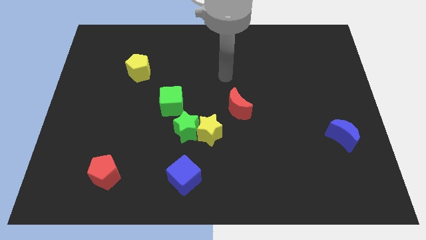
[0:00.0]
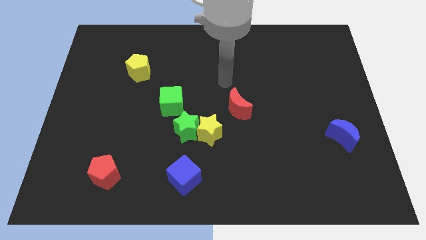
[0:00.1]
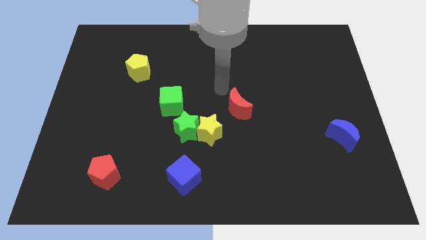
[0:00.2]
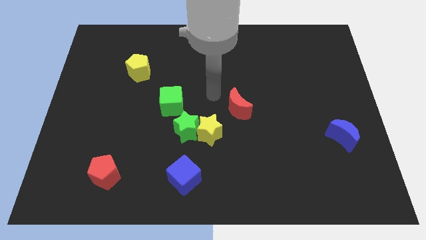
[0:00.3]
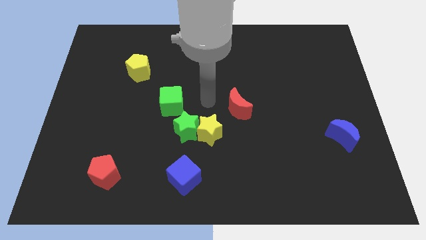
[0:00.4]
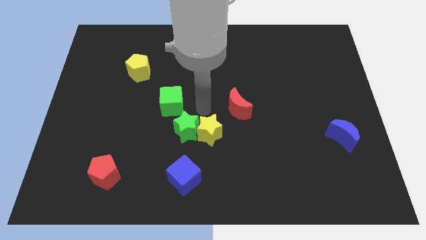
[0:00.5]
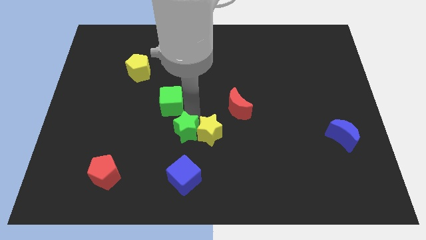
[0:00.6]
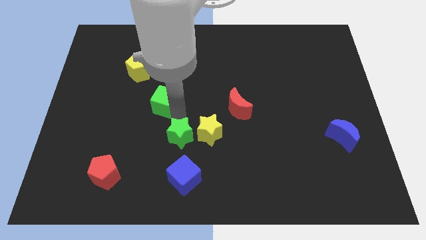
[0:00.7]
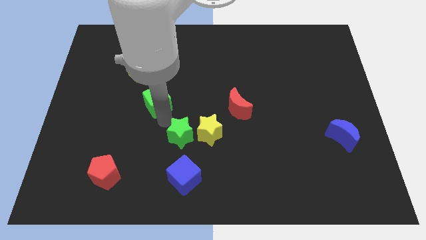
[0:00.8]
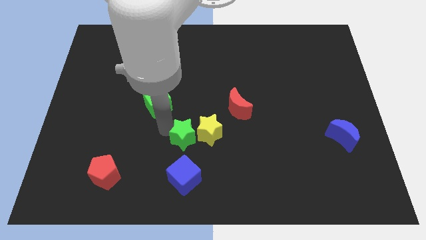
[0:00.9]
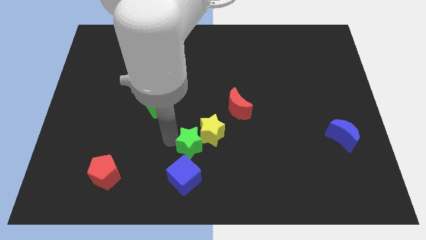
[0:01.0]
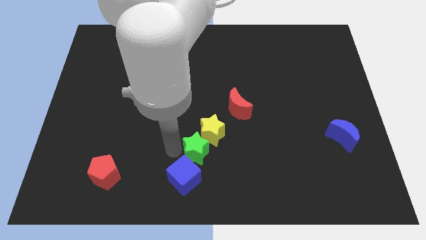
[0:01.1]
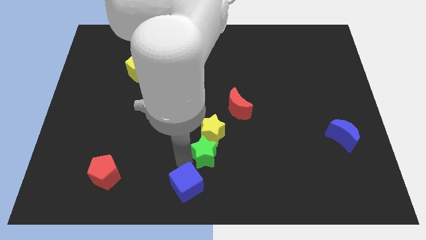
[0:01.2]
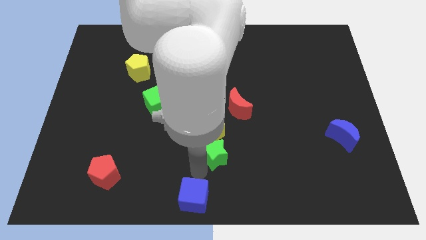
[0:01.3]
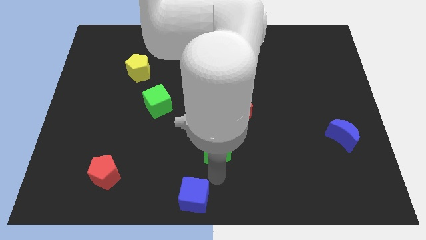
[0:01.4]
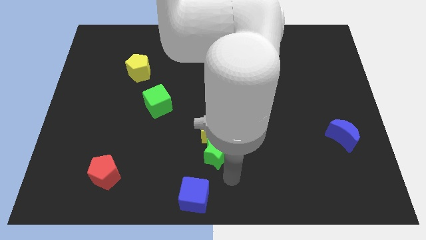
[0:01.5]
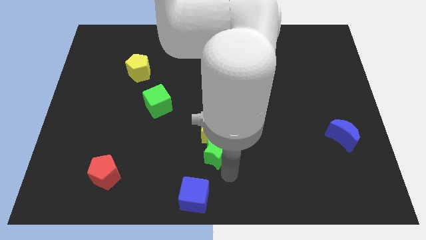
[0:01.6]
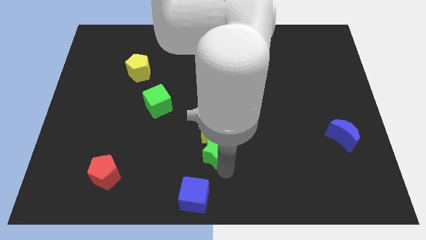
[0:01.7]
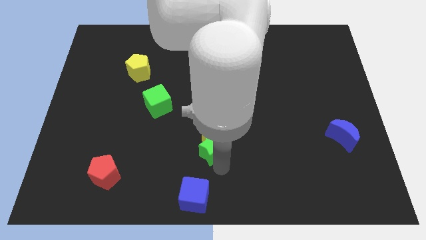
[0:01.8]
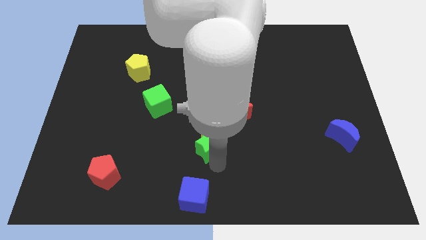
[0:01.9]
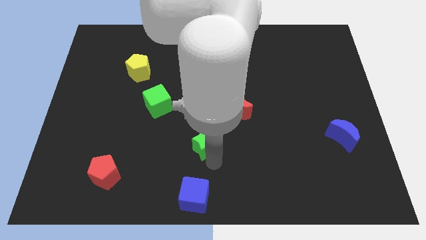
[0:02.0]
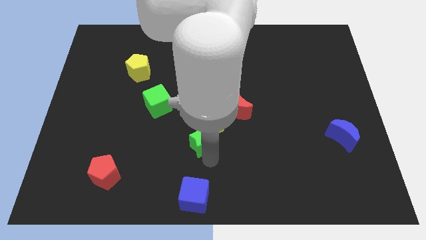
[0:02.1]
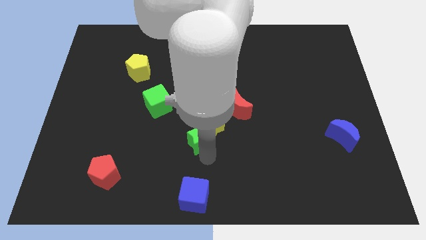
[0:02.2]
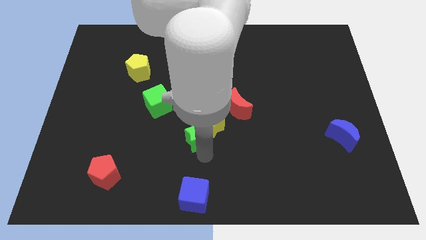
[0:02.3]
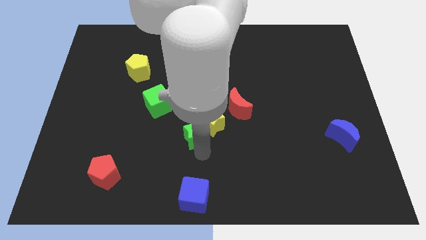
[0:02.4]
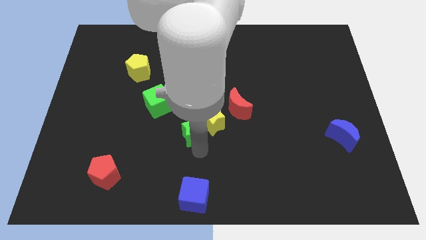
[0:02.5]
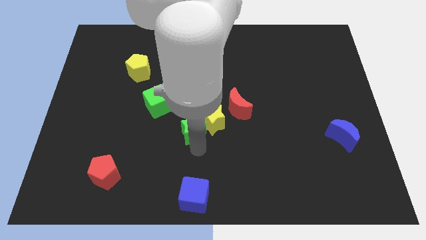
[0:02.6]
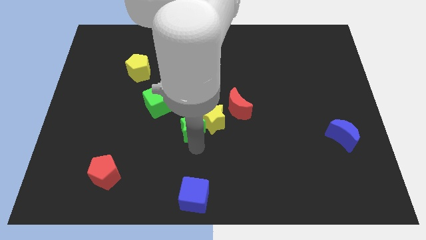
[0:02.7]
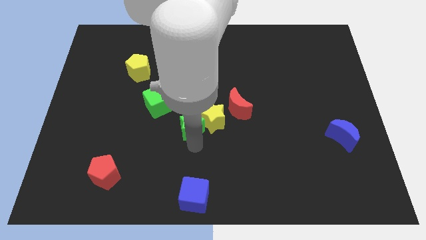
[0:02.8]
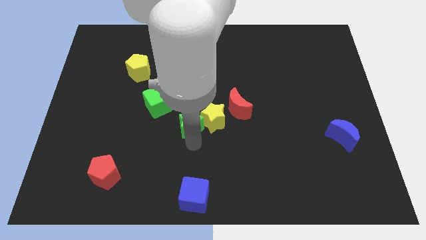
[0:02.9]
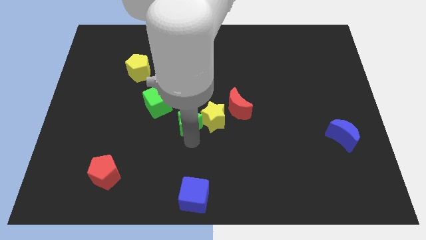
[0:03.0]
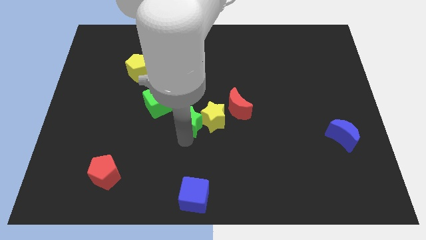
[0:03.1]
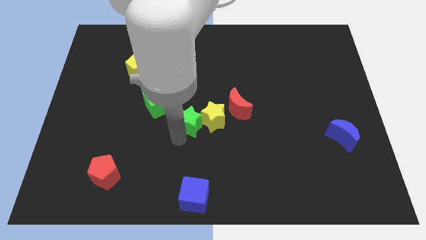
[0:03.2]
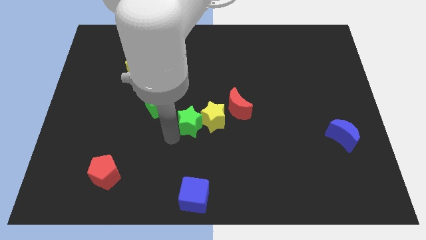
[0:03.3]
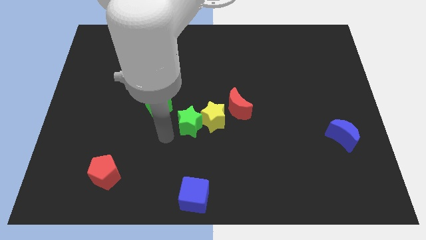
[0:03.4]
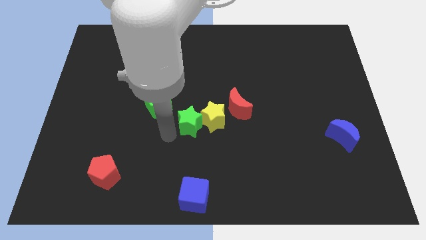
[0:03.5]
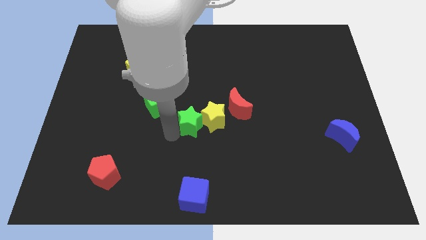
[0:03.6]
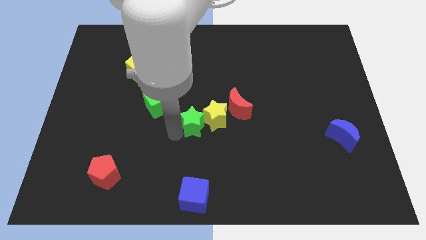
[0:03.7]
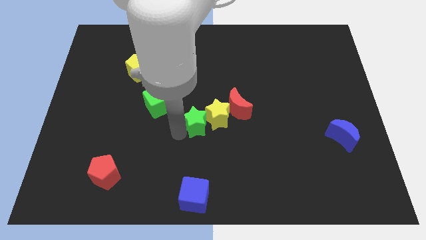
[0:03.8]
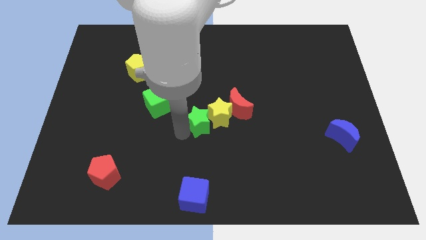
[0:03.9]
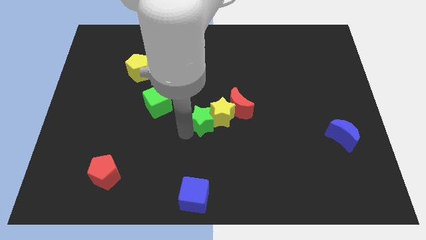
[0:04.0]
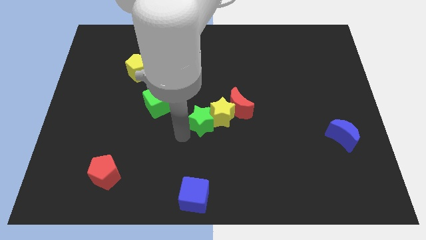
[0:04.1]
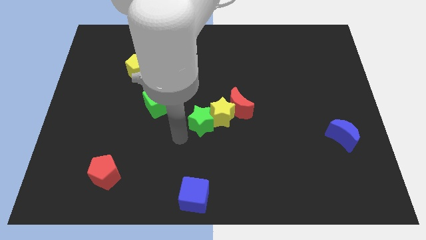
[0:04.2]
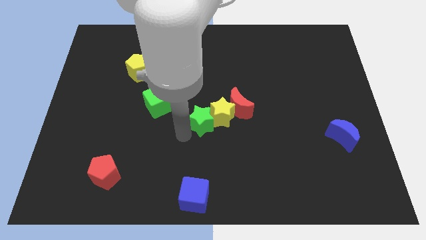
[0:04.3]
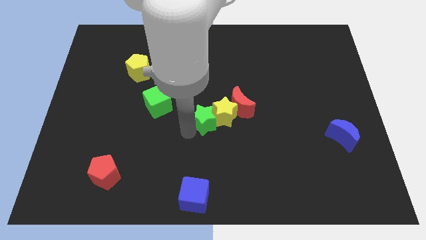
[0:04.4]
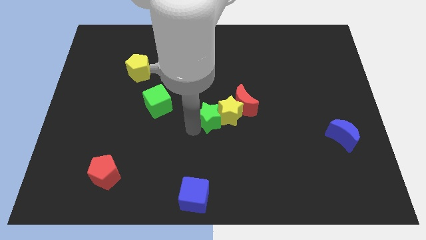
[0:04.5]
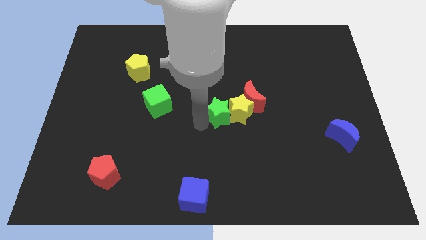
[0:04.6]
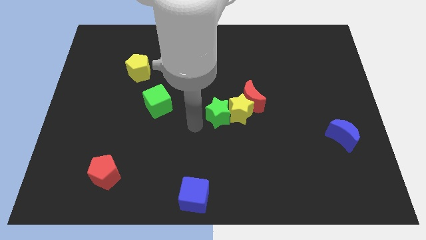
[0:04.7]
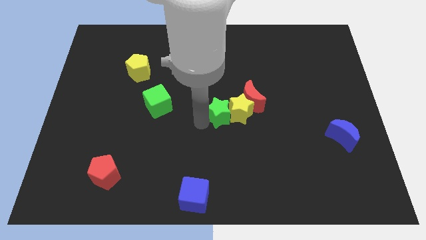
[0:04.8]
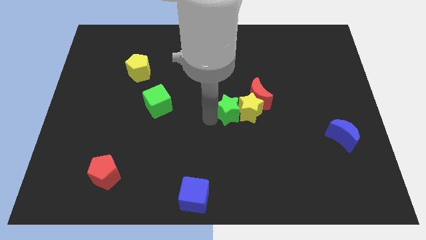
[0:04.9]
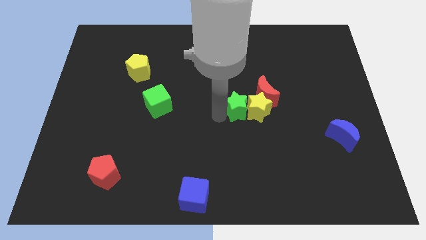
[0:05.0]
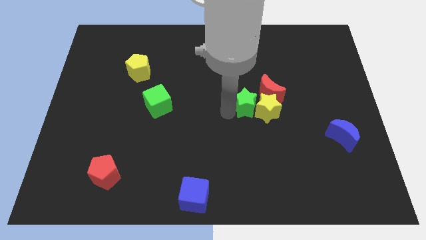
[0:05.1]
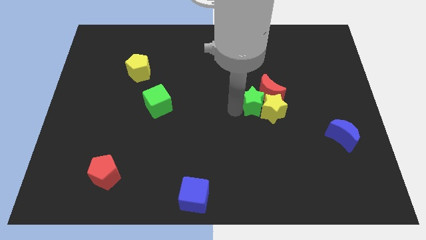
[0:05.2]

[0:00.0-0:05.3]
push the green star close to the red moon

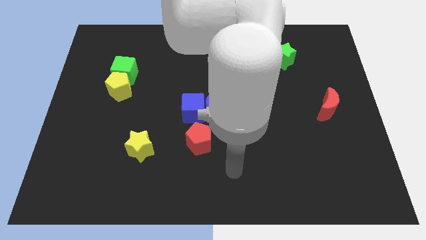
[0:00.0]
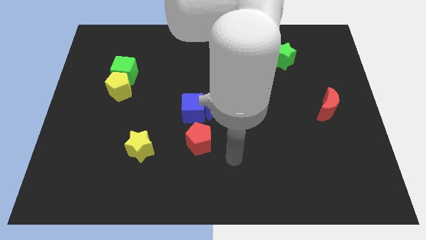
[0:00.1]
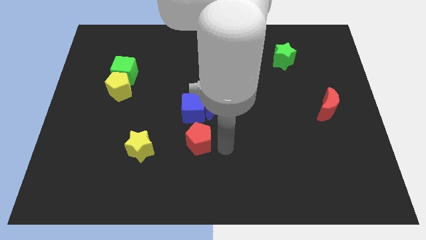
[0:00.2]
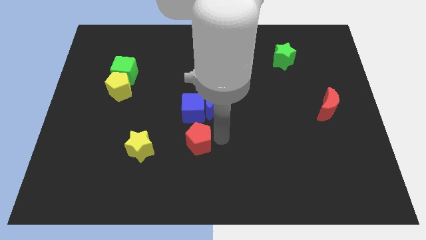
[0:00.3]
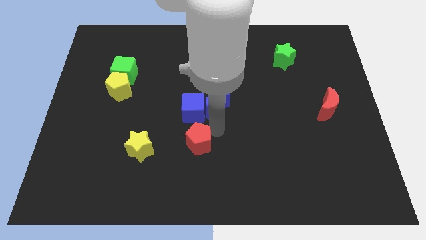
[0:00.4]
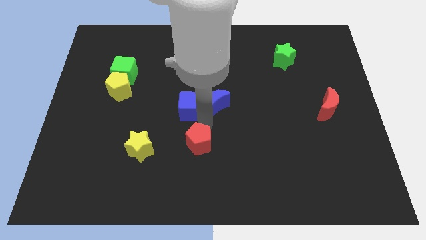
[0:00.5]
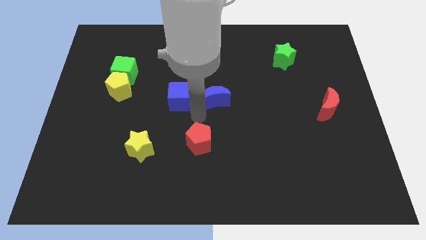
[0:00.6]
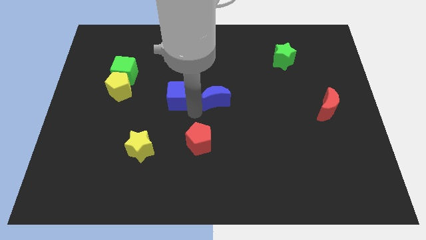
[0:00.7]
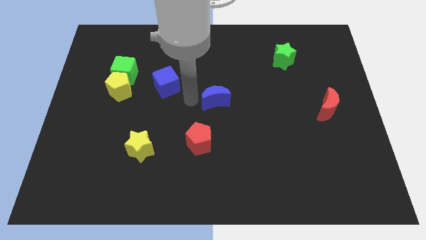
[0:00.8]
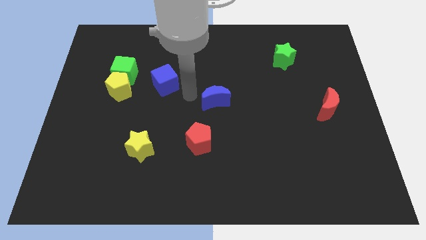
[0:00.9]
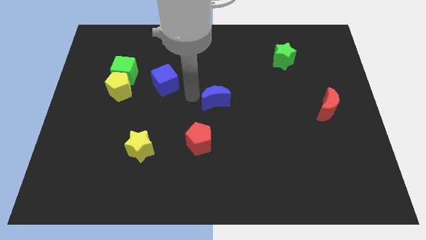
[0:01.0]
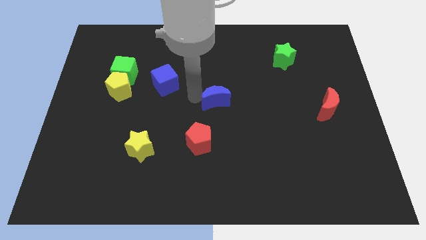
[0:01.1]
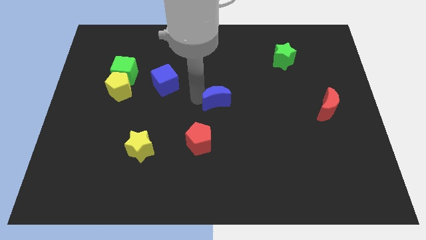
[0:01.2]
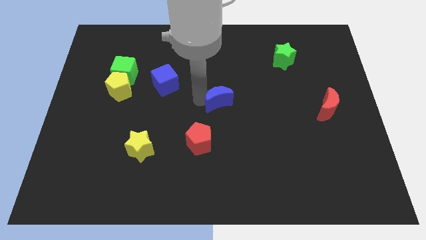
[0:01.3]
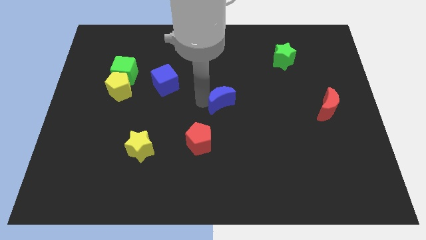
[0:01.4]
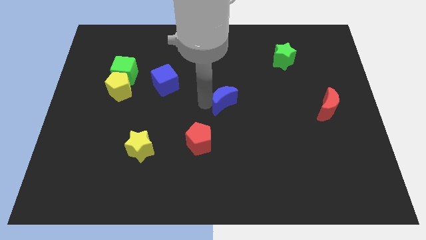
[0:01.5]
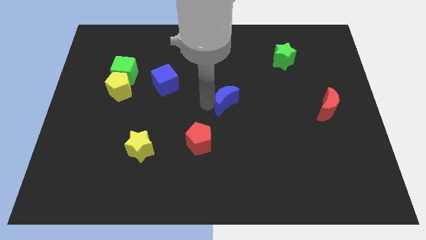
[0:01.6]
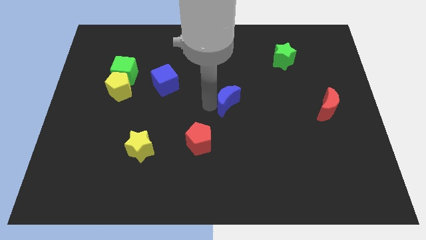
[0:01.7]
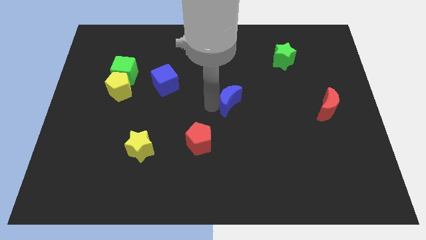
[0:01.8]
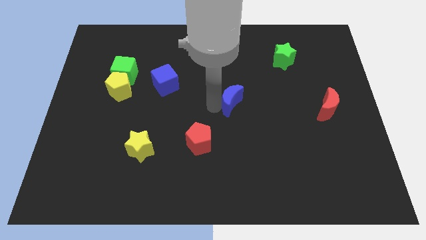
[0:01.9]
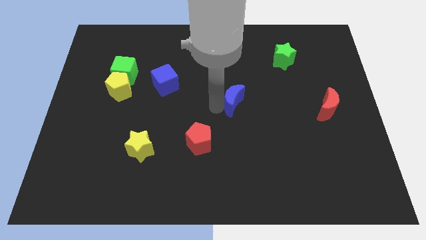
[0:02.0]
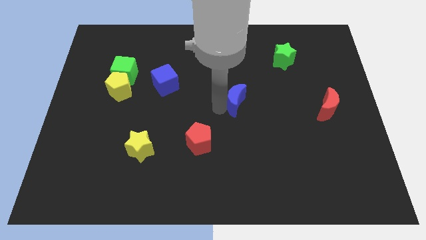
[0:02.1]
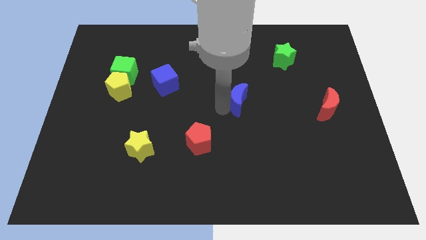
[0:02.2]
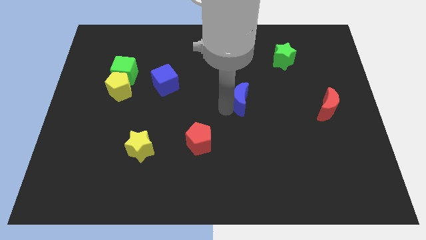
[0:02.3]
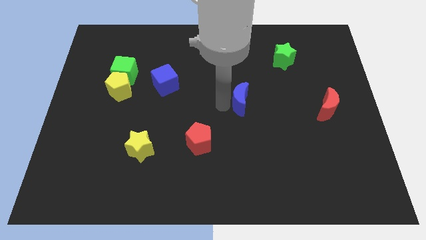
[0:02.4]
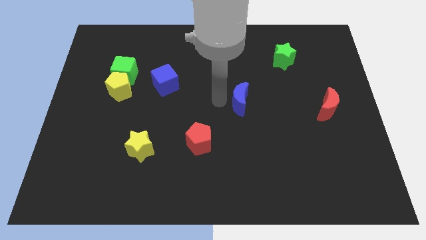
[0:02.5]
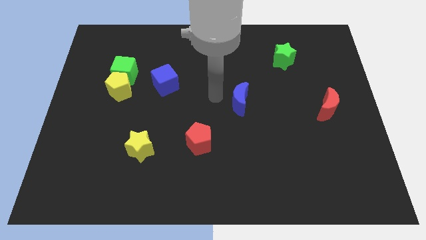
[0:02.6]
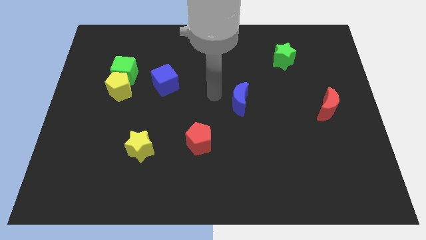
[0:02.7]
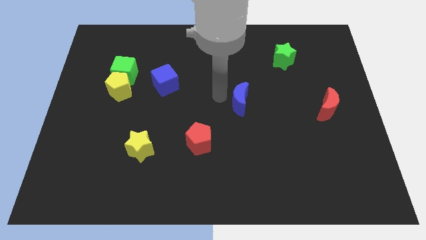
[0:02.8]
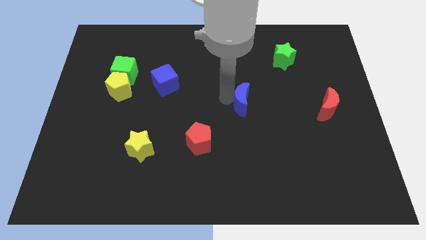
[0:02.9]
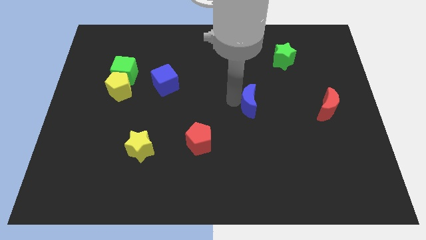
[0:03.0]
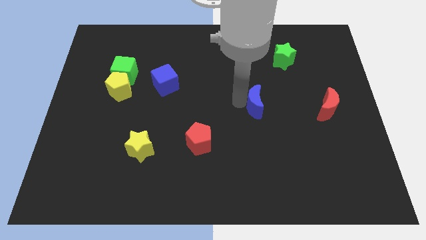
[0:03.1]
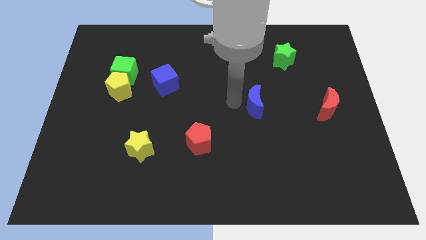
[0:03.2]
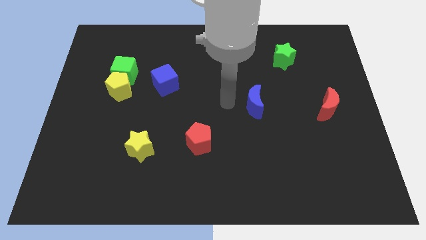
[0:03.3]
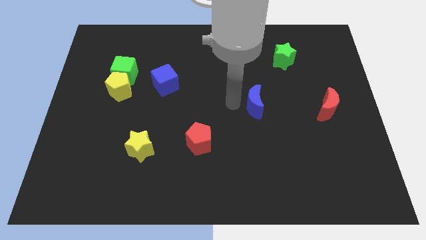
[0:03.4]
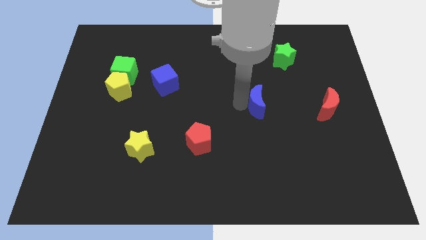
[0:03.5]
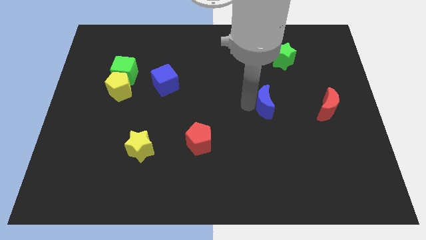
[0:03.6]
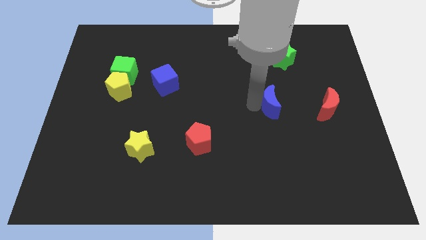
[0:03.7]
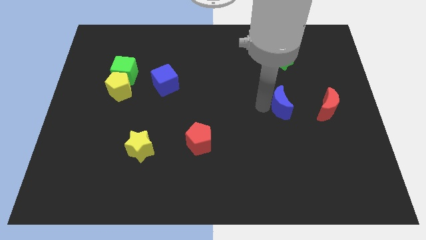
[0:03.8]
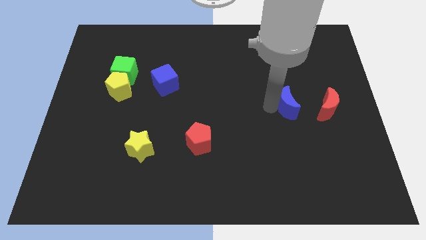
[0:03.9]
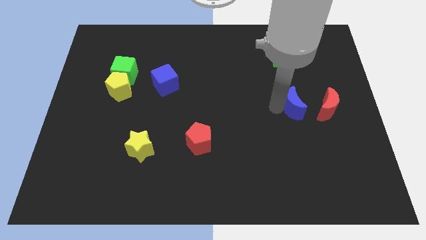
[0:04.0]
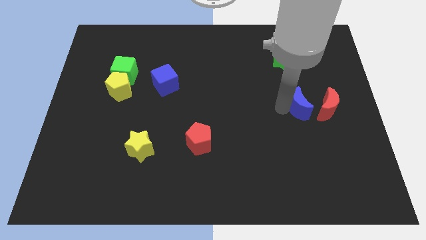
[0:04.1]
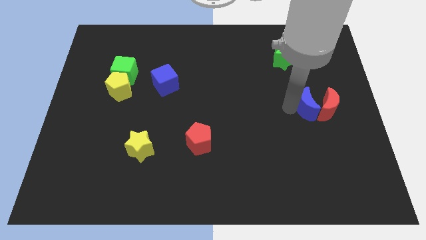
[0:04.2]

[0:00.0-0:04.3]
push the blue moon to the red moon
